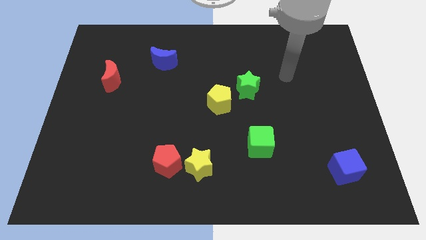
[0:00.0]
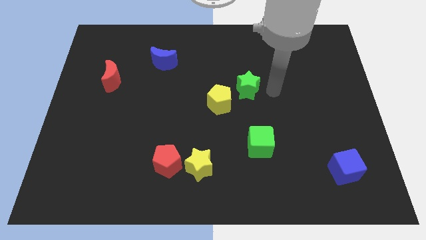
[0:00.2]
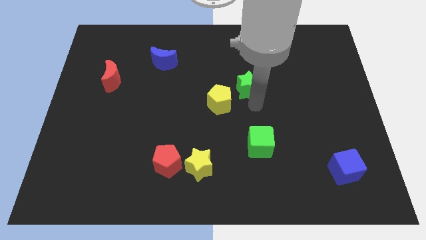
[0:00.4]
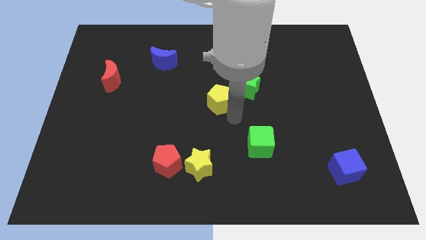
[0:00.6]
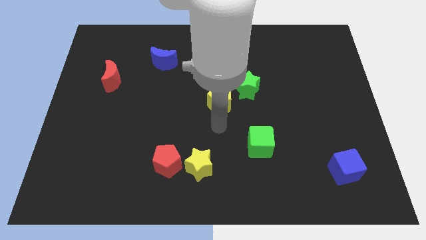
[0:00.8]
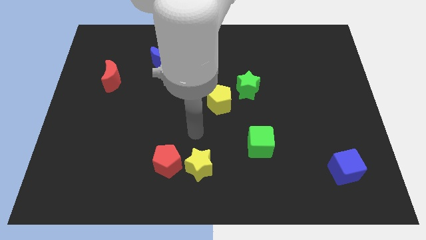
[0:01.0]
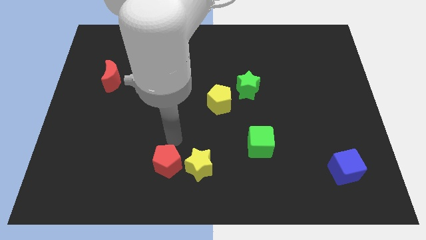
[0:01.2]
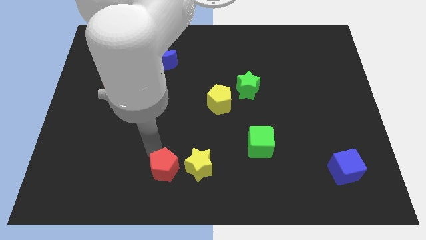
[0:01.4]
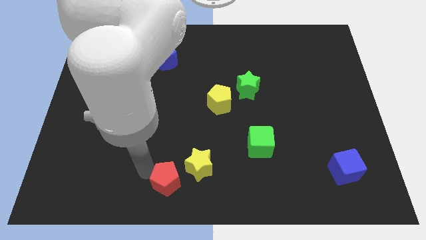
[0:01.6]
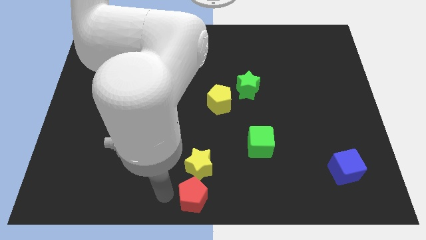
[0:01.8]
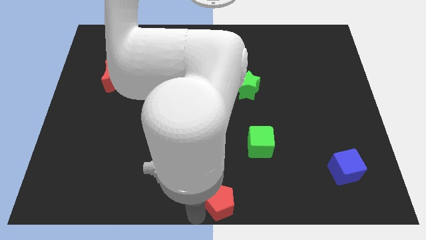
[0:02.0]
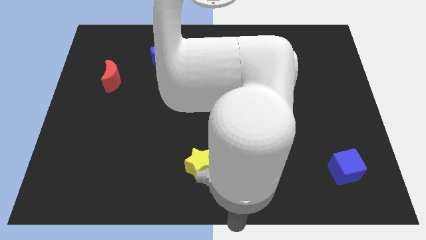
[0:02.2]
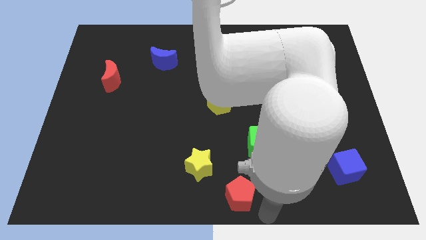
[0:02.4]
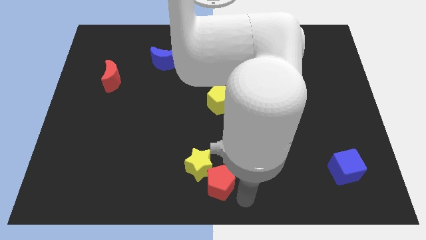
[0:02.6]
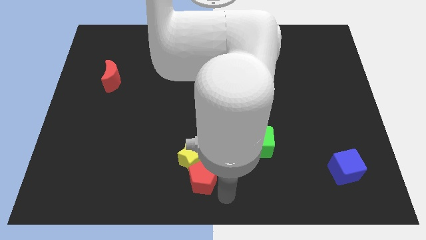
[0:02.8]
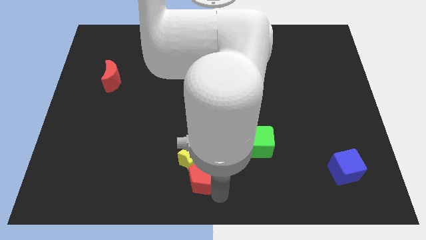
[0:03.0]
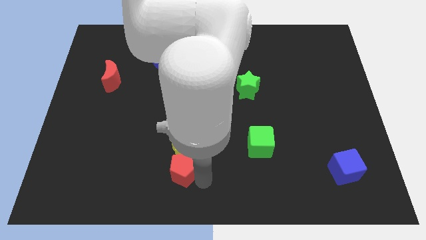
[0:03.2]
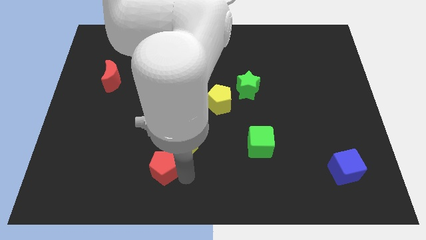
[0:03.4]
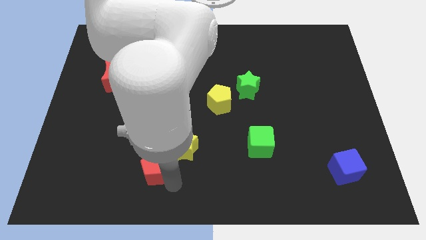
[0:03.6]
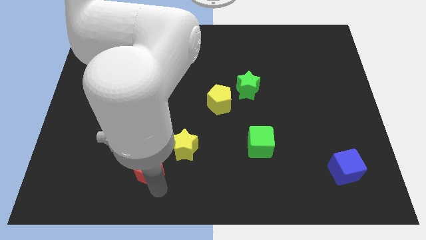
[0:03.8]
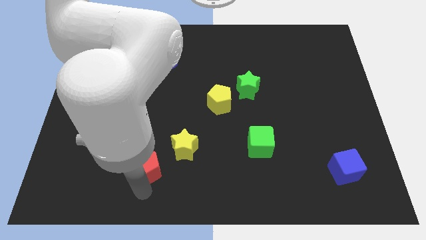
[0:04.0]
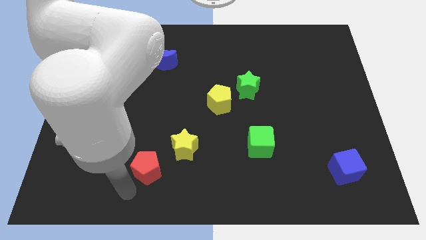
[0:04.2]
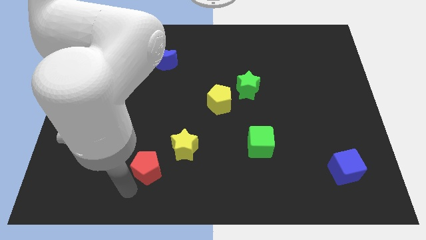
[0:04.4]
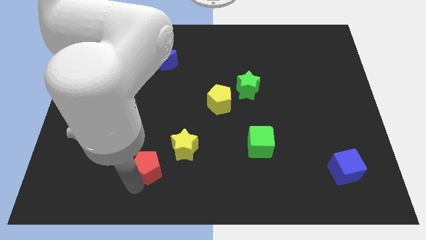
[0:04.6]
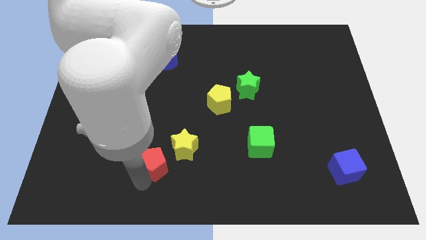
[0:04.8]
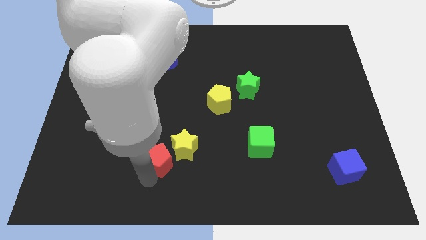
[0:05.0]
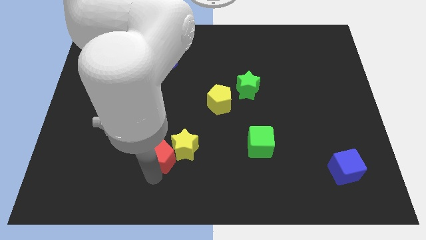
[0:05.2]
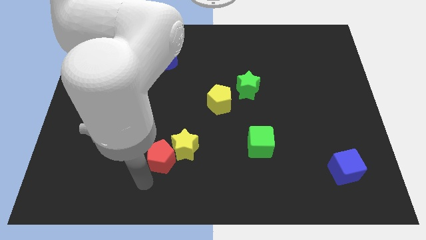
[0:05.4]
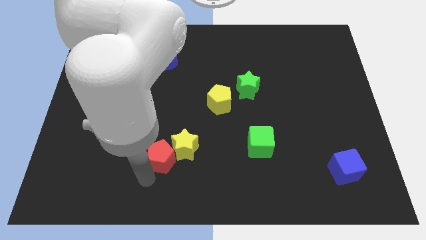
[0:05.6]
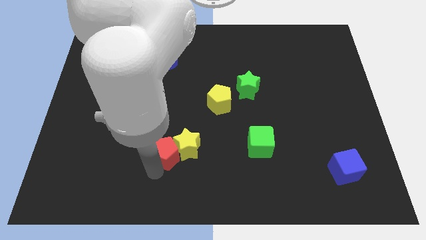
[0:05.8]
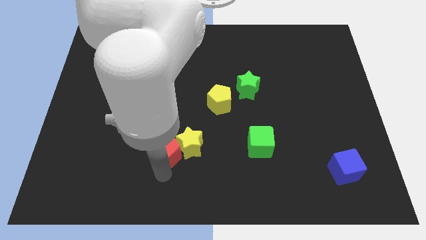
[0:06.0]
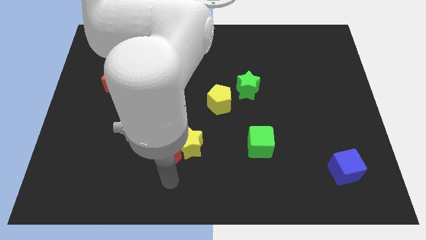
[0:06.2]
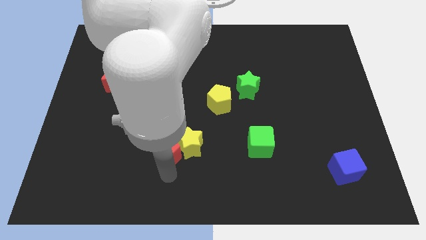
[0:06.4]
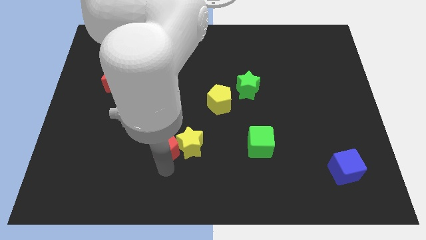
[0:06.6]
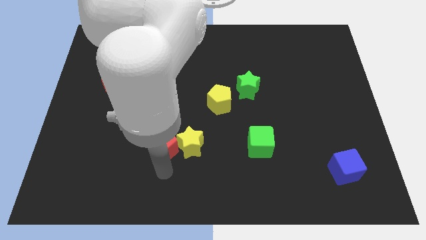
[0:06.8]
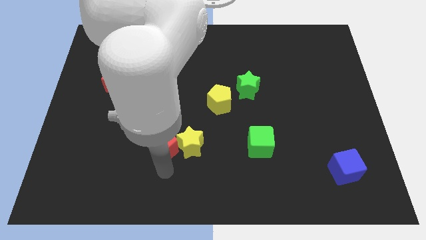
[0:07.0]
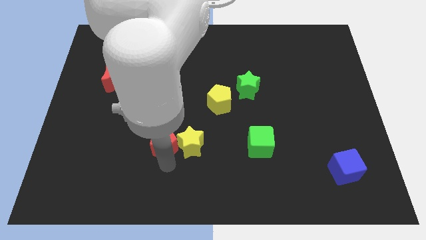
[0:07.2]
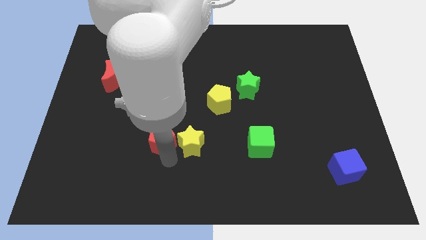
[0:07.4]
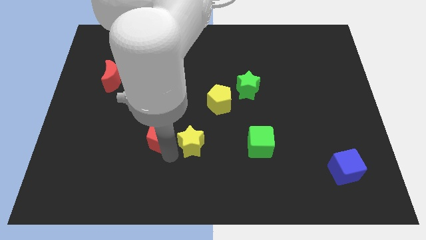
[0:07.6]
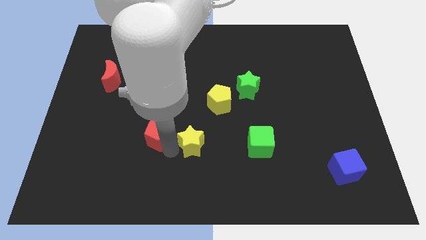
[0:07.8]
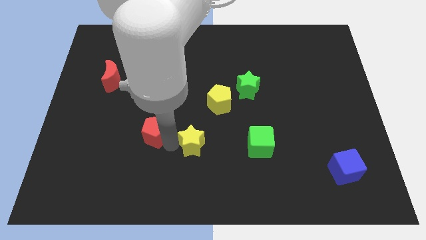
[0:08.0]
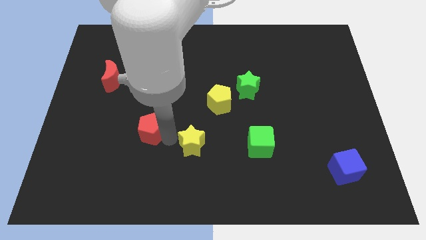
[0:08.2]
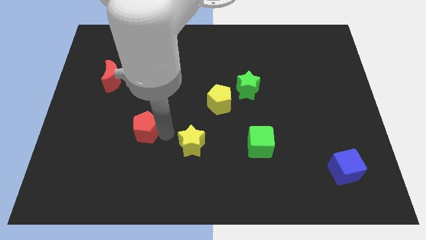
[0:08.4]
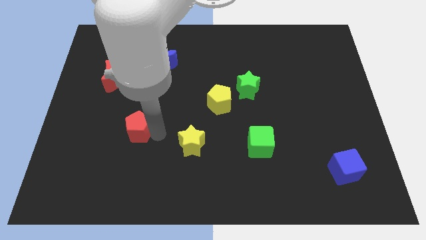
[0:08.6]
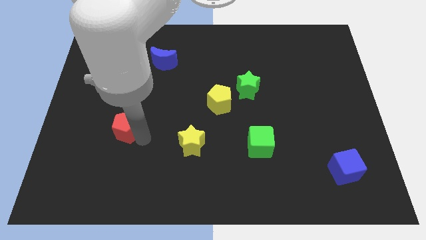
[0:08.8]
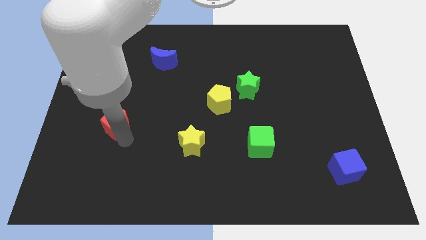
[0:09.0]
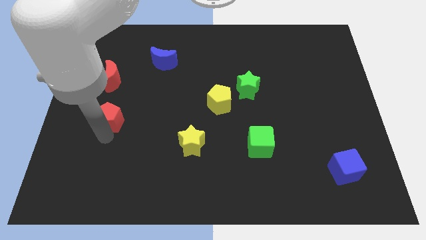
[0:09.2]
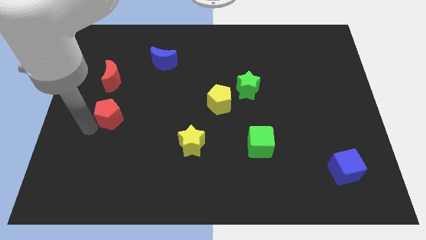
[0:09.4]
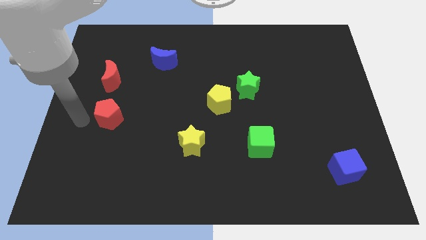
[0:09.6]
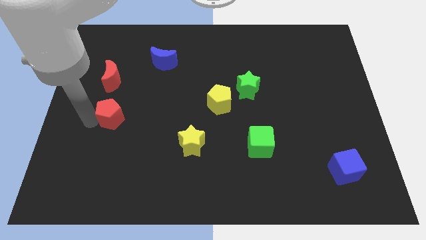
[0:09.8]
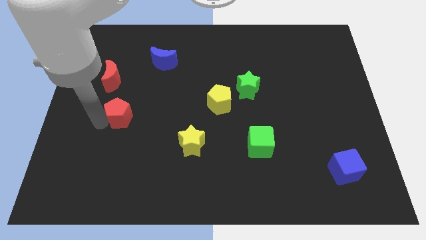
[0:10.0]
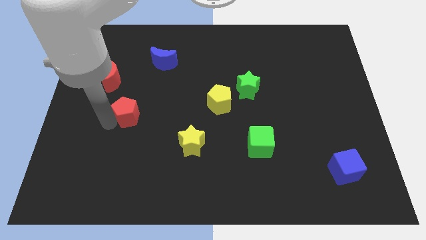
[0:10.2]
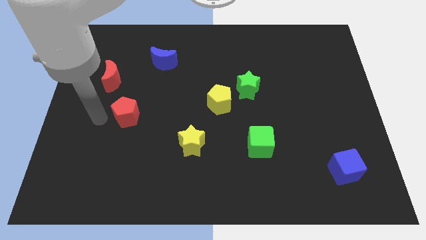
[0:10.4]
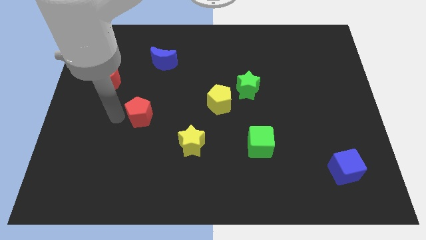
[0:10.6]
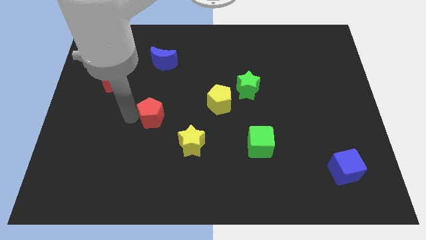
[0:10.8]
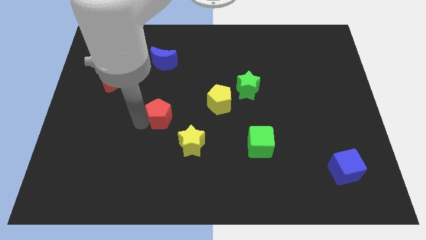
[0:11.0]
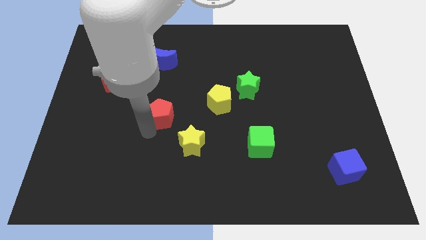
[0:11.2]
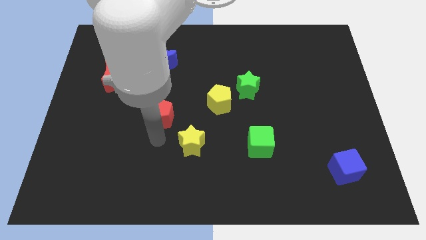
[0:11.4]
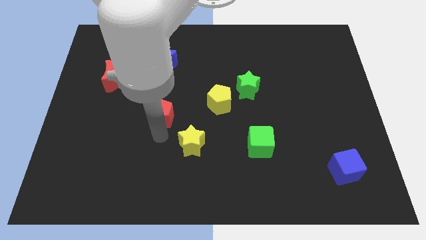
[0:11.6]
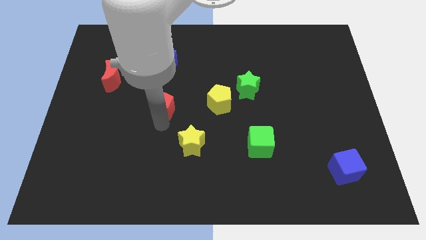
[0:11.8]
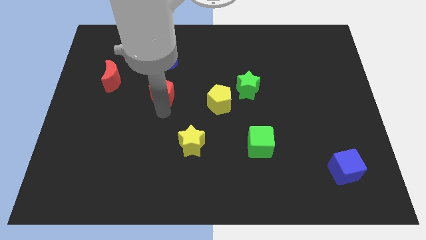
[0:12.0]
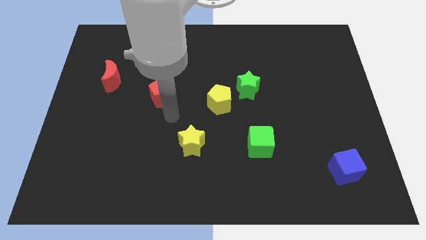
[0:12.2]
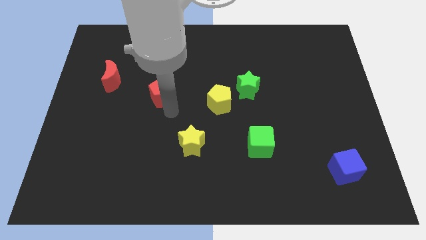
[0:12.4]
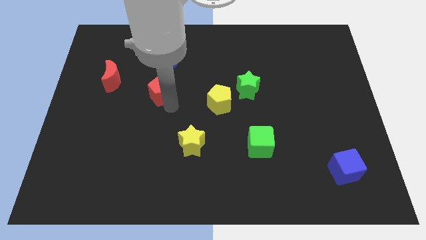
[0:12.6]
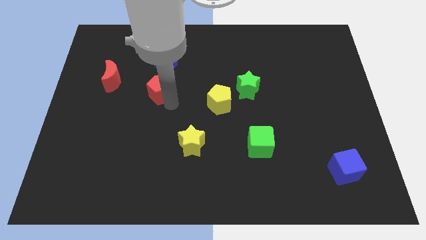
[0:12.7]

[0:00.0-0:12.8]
slide the red pentagon to the right side of the red moon
